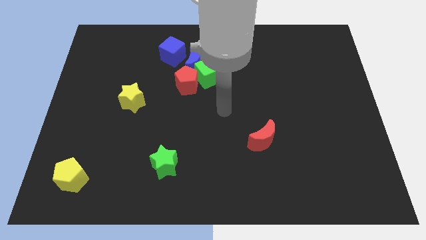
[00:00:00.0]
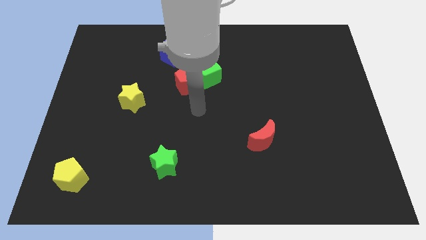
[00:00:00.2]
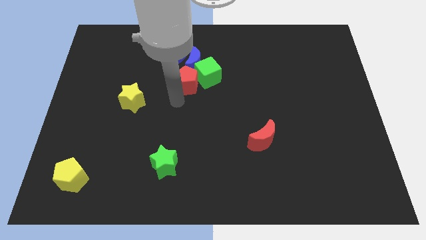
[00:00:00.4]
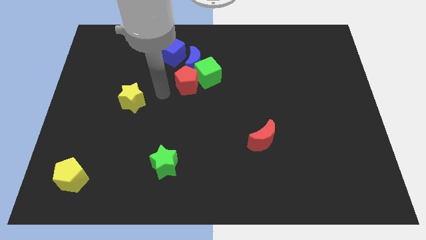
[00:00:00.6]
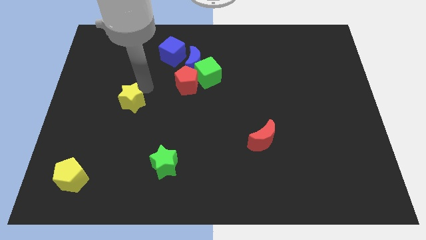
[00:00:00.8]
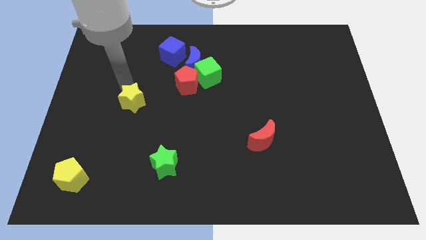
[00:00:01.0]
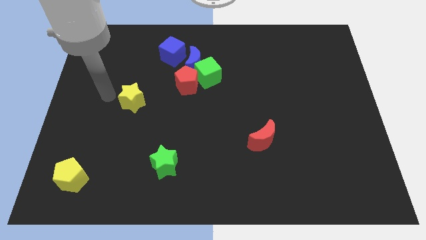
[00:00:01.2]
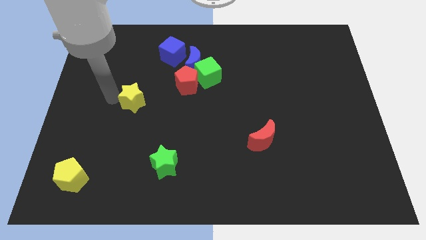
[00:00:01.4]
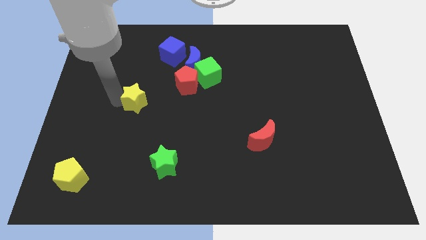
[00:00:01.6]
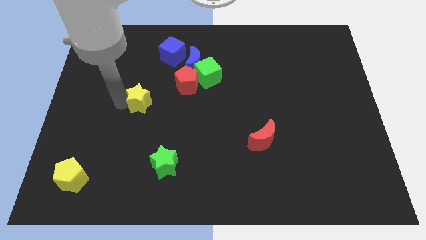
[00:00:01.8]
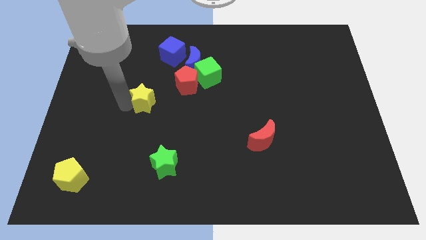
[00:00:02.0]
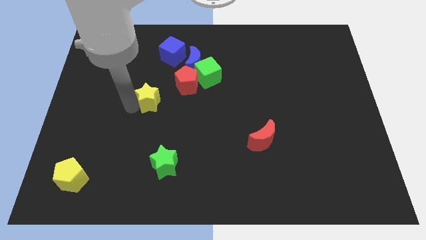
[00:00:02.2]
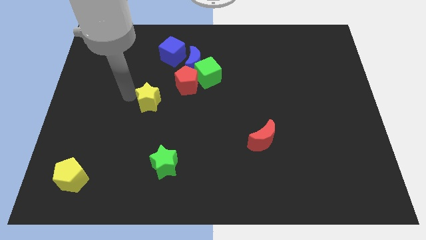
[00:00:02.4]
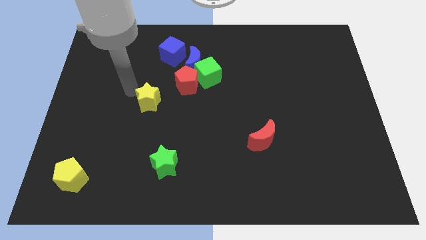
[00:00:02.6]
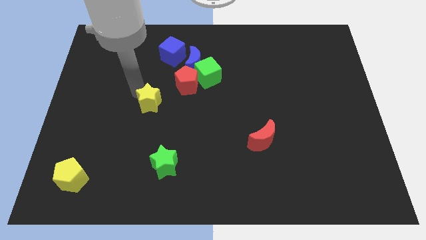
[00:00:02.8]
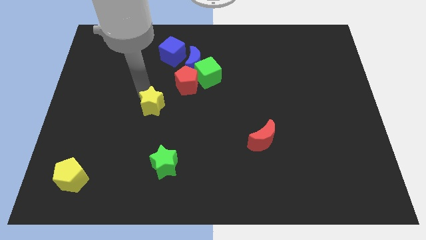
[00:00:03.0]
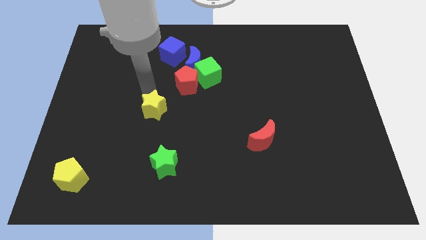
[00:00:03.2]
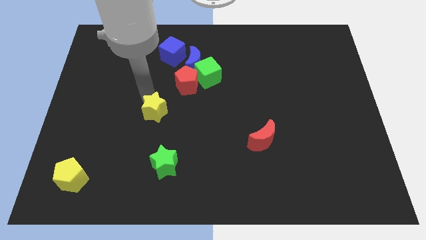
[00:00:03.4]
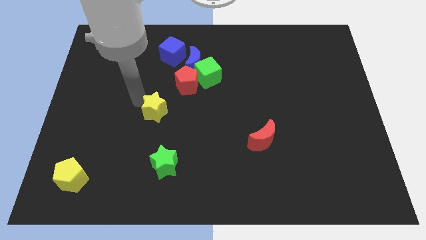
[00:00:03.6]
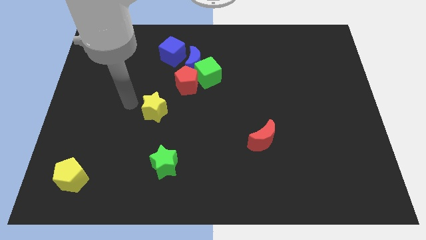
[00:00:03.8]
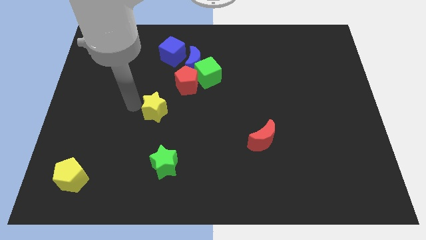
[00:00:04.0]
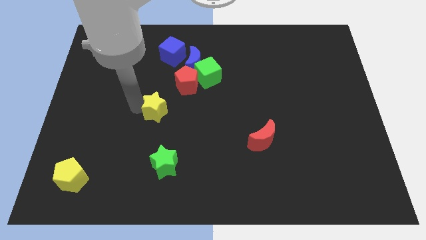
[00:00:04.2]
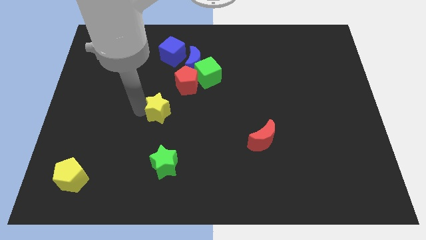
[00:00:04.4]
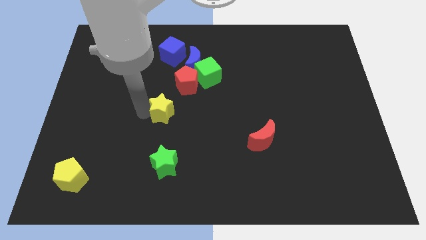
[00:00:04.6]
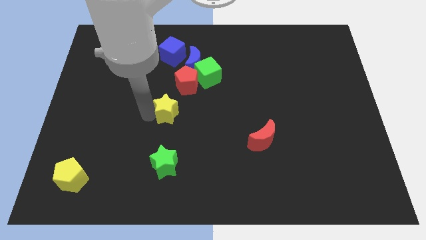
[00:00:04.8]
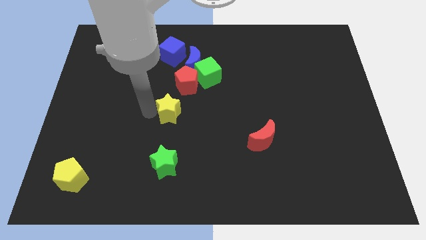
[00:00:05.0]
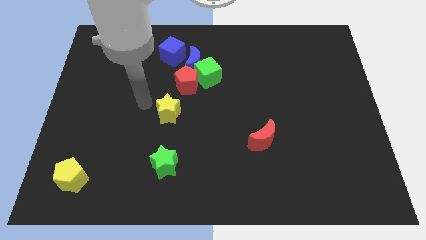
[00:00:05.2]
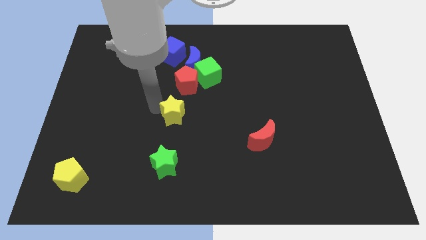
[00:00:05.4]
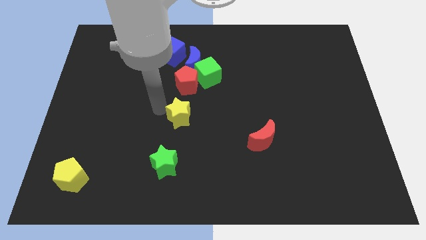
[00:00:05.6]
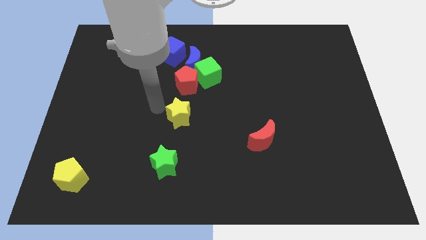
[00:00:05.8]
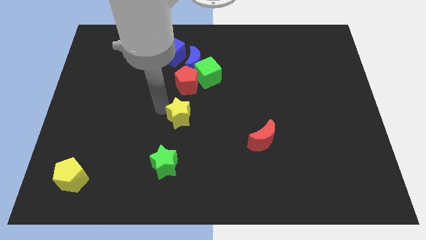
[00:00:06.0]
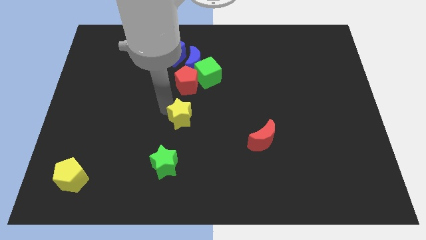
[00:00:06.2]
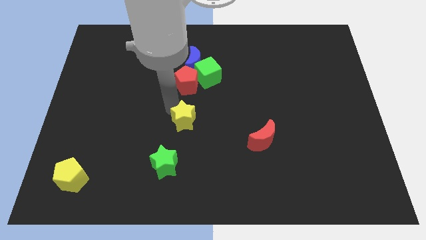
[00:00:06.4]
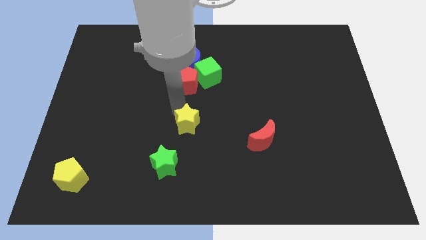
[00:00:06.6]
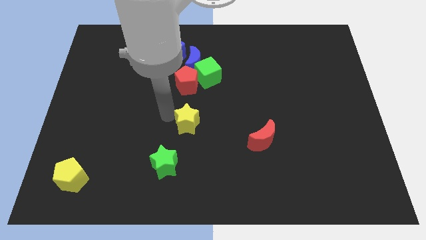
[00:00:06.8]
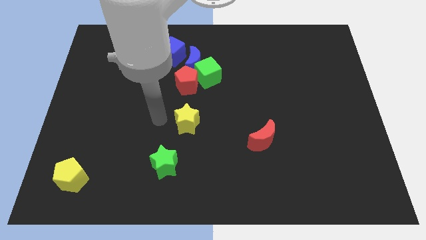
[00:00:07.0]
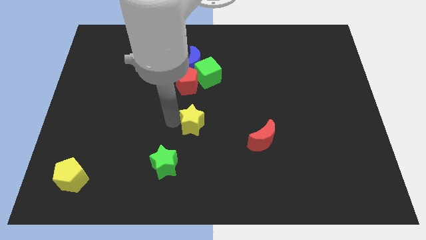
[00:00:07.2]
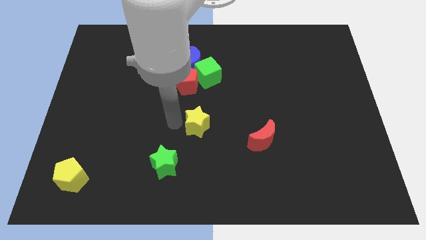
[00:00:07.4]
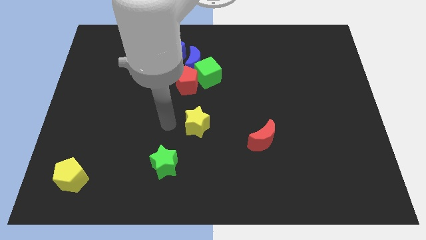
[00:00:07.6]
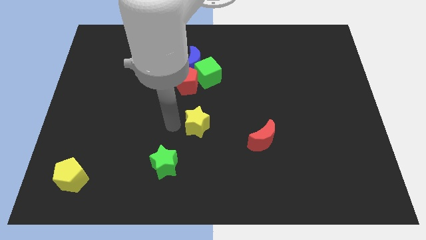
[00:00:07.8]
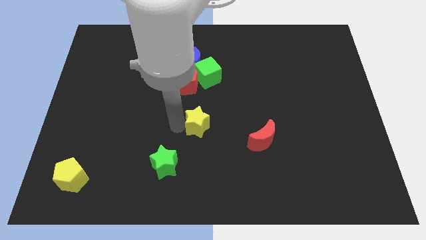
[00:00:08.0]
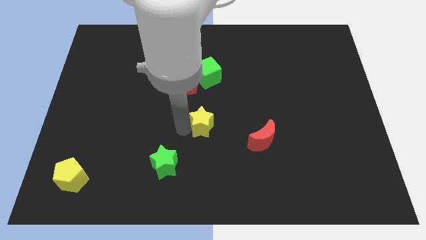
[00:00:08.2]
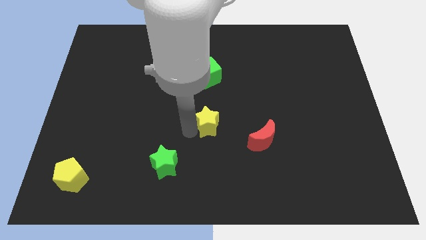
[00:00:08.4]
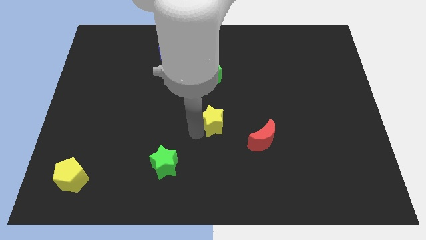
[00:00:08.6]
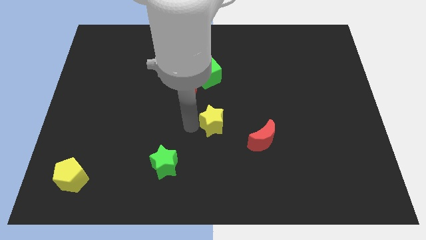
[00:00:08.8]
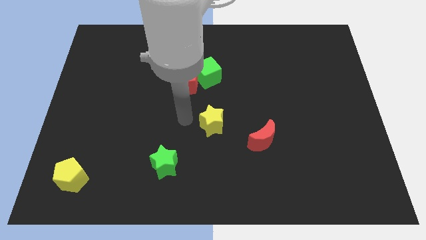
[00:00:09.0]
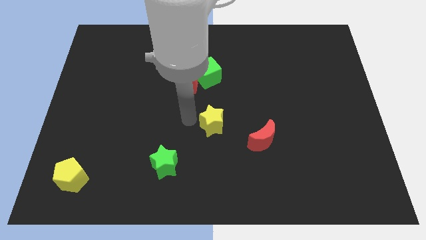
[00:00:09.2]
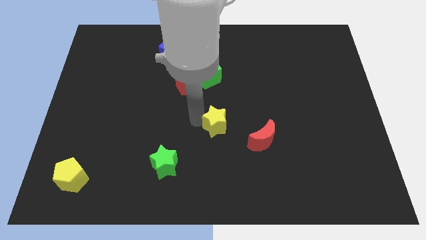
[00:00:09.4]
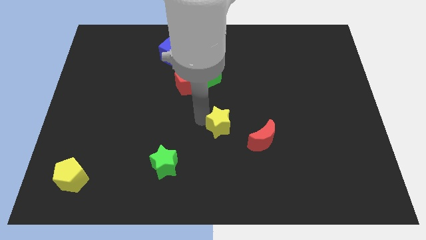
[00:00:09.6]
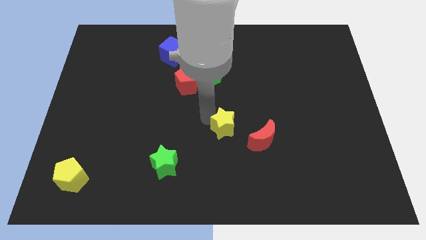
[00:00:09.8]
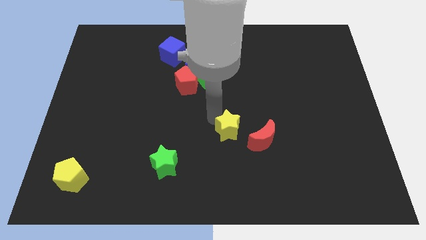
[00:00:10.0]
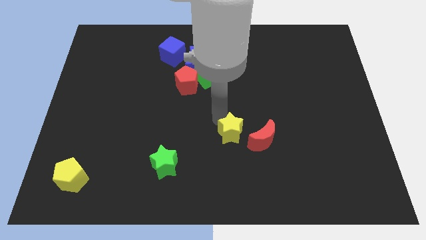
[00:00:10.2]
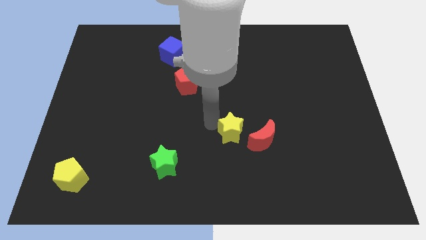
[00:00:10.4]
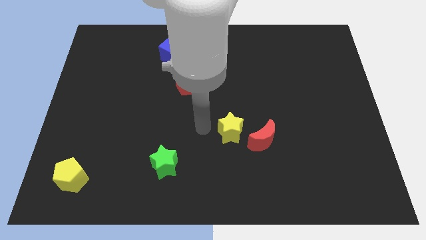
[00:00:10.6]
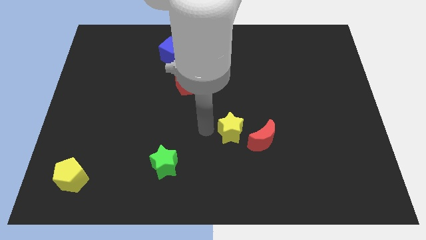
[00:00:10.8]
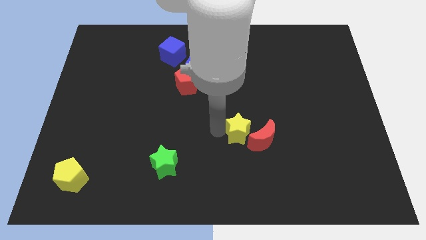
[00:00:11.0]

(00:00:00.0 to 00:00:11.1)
push the yellow star next to the red moon

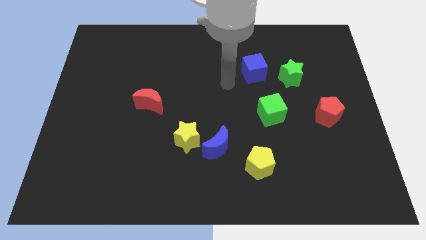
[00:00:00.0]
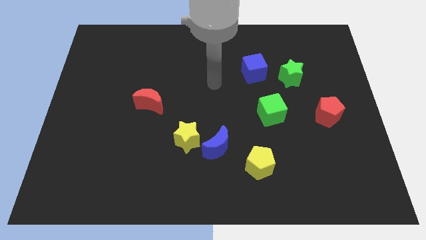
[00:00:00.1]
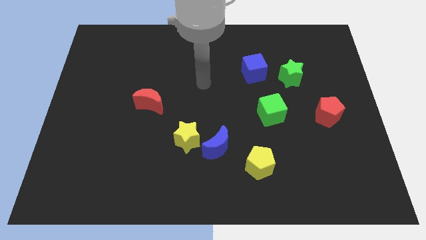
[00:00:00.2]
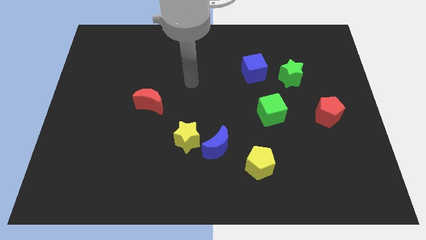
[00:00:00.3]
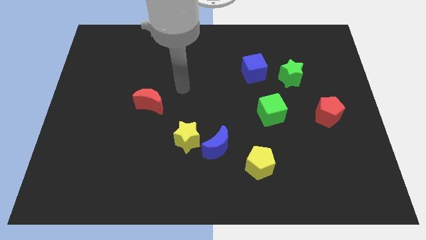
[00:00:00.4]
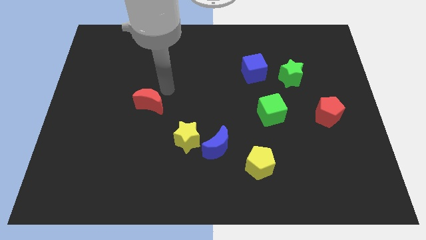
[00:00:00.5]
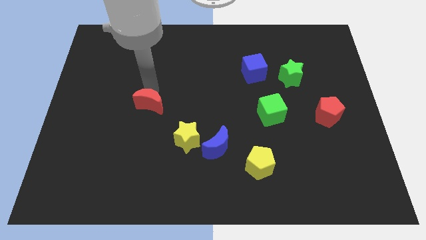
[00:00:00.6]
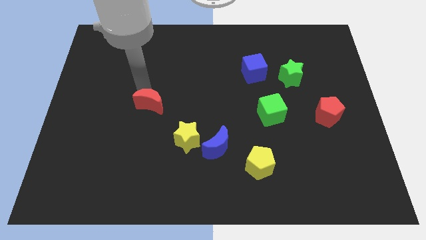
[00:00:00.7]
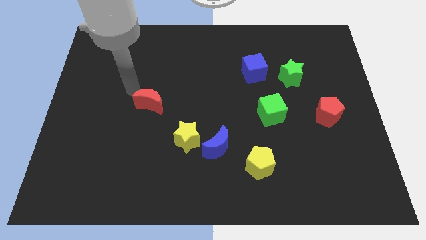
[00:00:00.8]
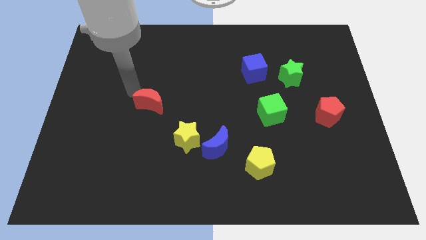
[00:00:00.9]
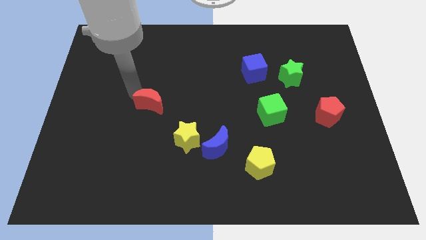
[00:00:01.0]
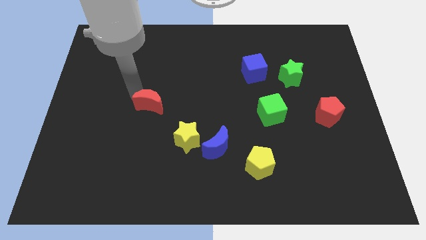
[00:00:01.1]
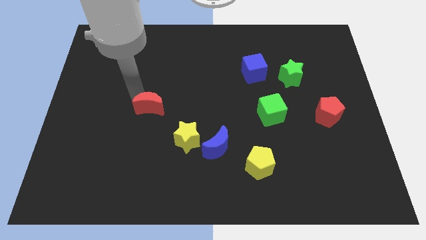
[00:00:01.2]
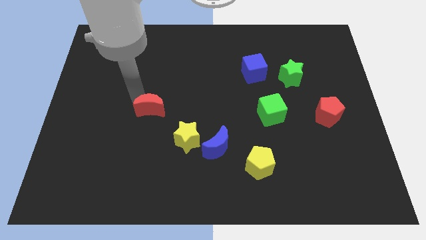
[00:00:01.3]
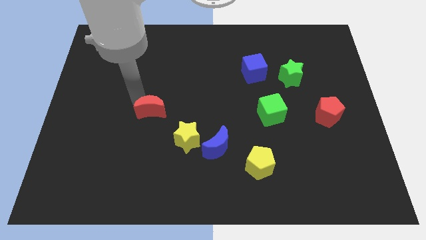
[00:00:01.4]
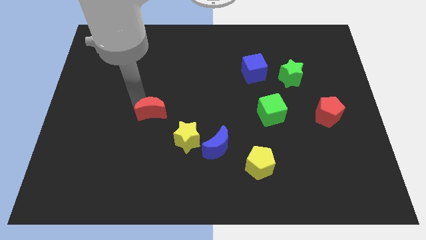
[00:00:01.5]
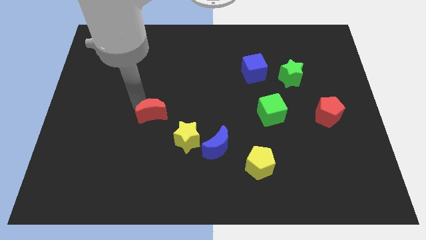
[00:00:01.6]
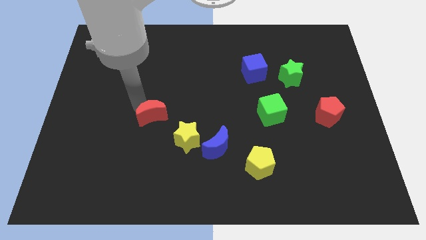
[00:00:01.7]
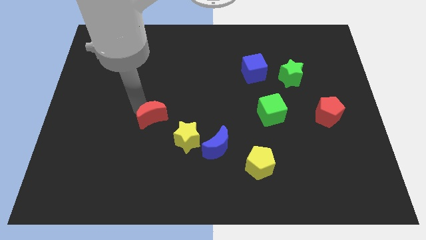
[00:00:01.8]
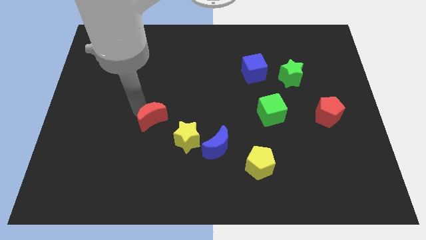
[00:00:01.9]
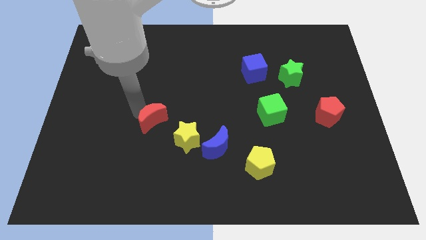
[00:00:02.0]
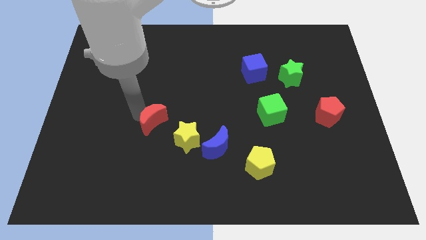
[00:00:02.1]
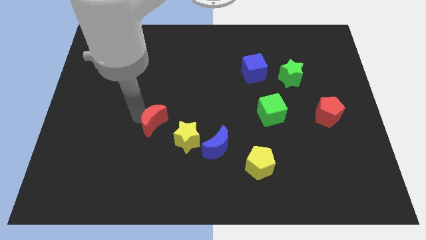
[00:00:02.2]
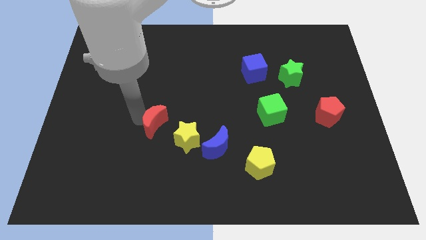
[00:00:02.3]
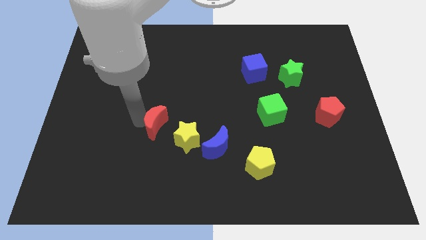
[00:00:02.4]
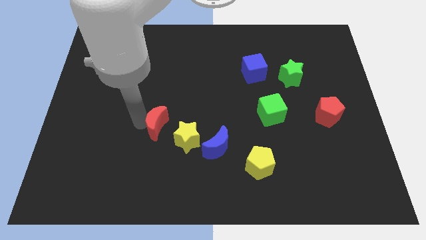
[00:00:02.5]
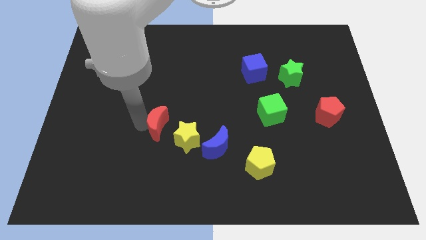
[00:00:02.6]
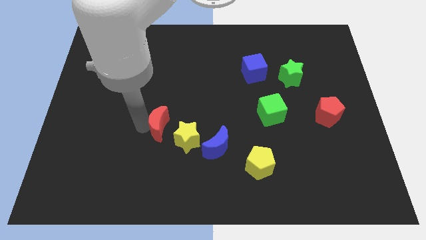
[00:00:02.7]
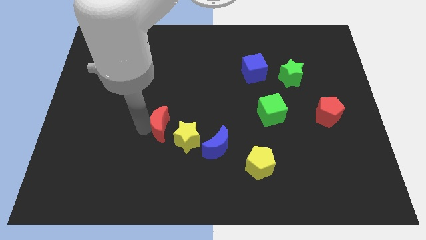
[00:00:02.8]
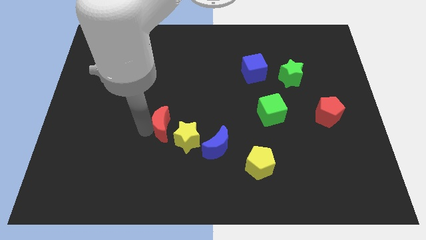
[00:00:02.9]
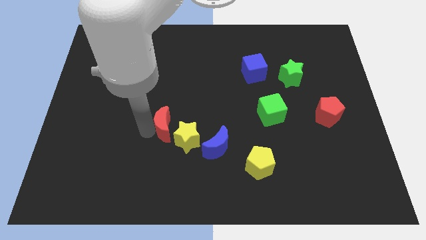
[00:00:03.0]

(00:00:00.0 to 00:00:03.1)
push the red moon close to the yellow star
